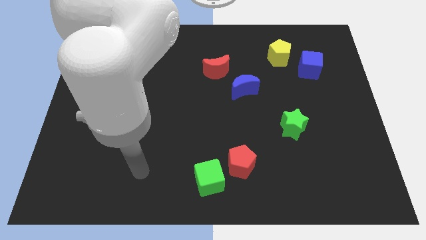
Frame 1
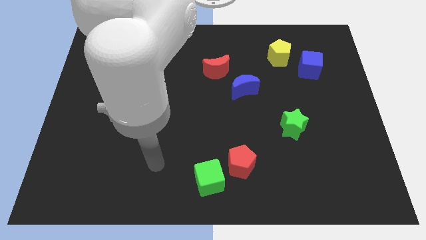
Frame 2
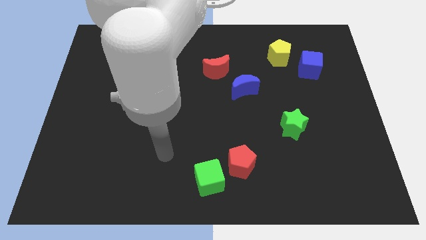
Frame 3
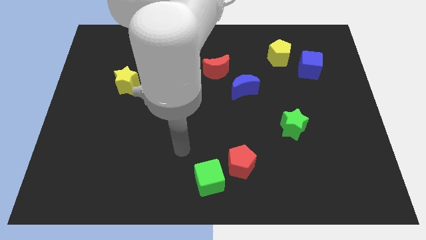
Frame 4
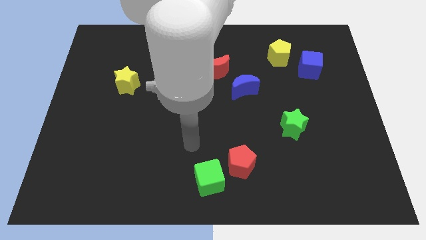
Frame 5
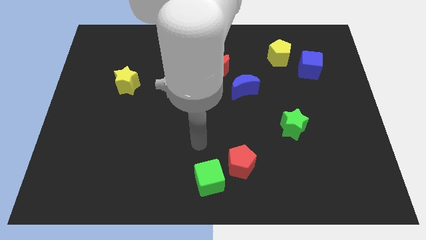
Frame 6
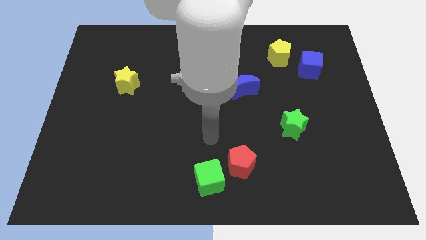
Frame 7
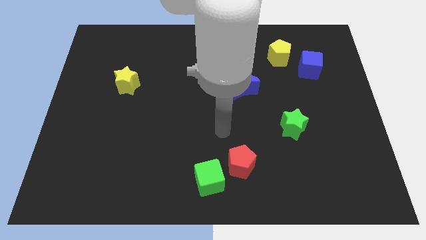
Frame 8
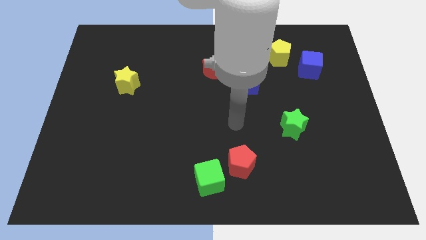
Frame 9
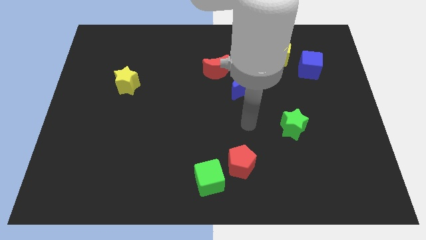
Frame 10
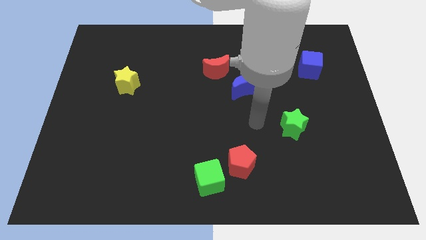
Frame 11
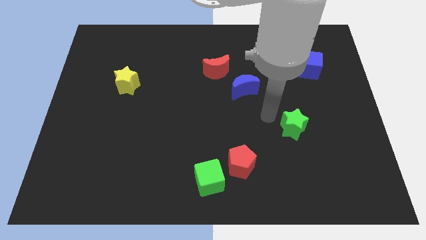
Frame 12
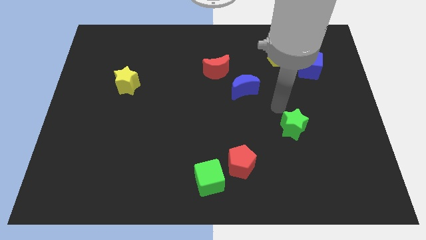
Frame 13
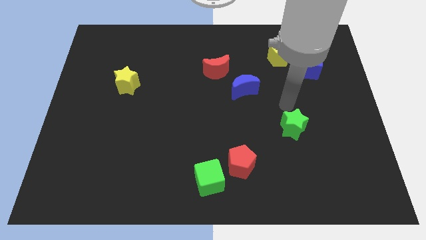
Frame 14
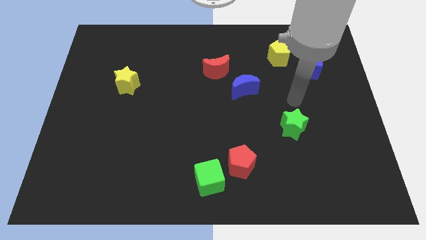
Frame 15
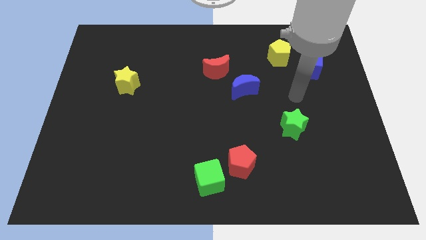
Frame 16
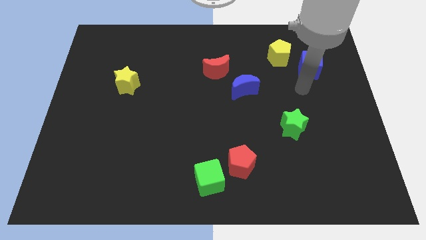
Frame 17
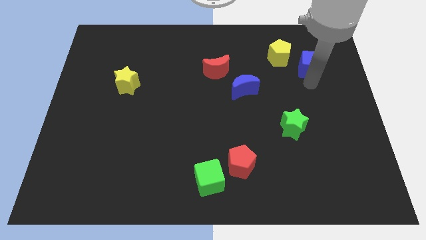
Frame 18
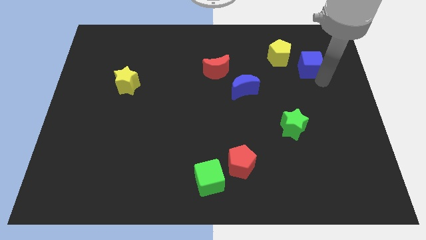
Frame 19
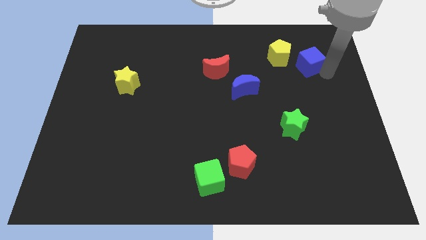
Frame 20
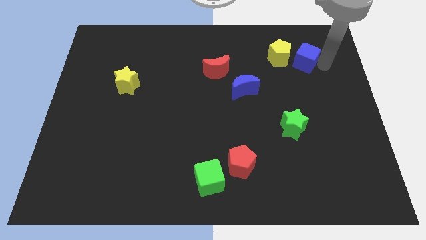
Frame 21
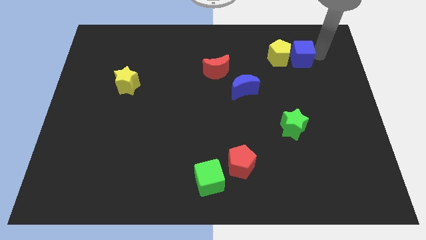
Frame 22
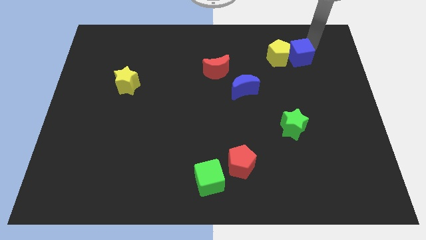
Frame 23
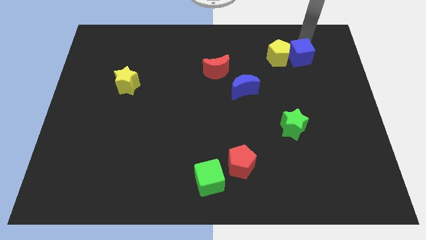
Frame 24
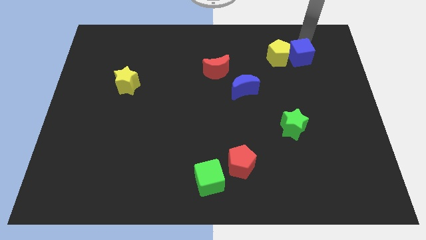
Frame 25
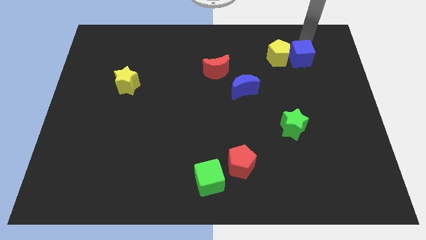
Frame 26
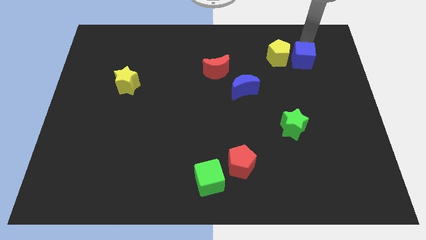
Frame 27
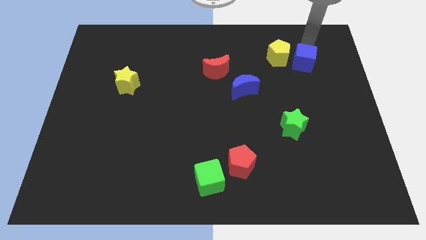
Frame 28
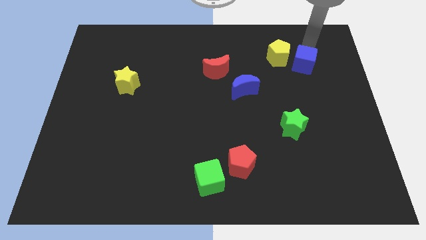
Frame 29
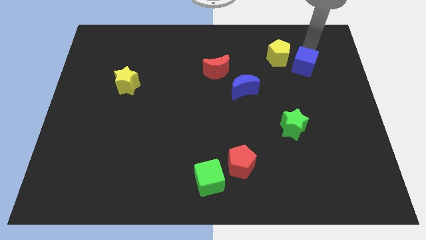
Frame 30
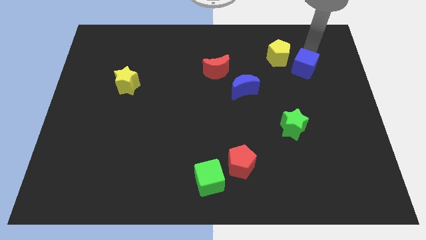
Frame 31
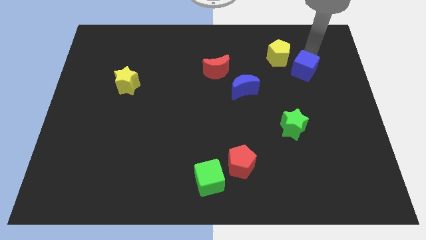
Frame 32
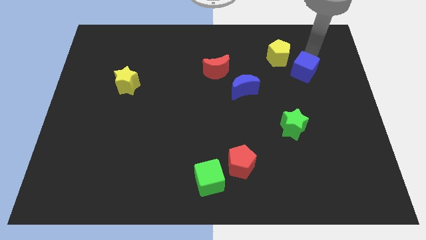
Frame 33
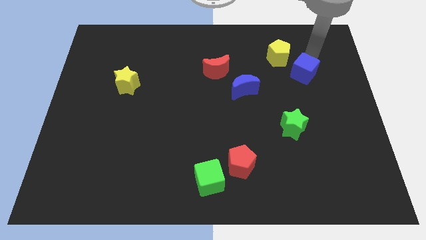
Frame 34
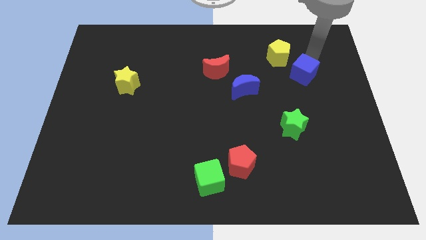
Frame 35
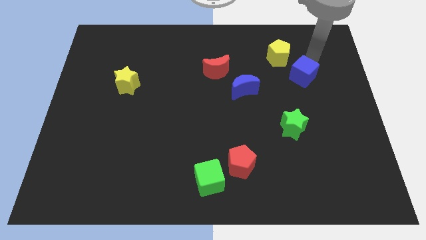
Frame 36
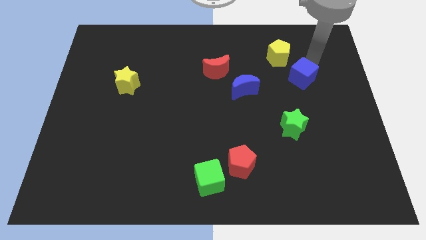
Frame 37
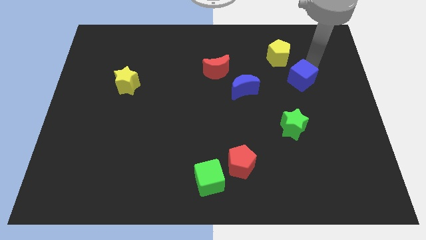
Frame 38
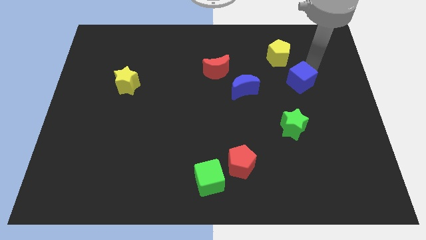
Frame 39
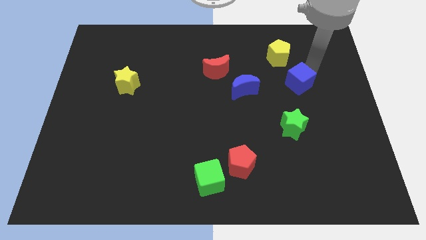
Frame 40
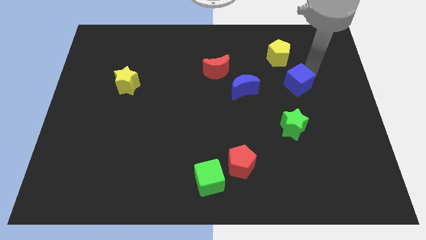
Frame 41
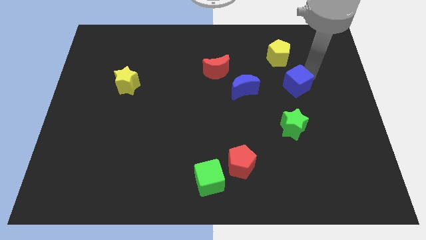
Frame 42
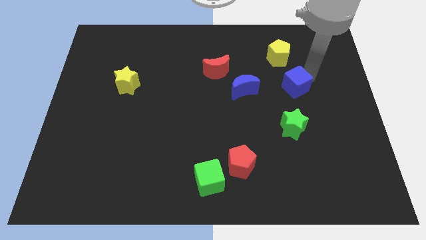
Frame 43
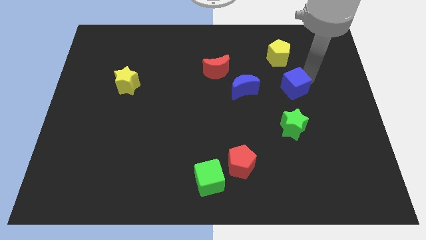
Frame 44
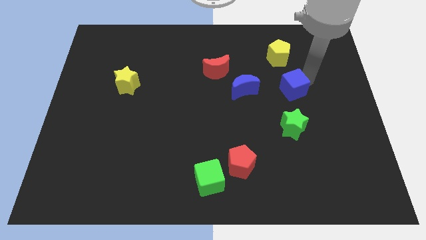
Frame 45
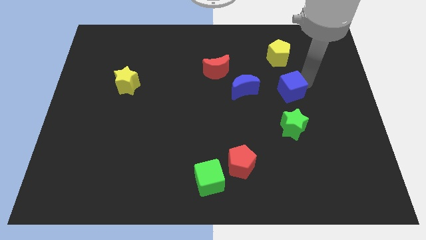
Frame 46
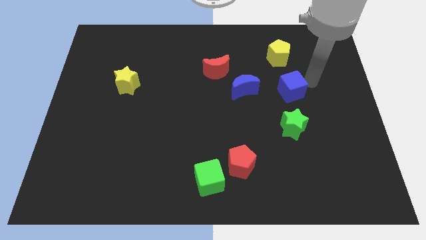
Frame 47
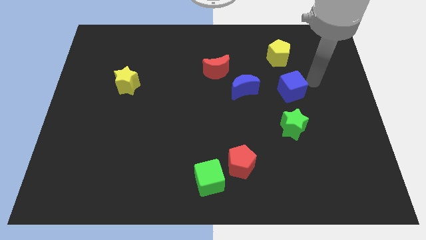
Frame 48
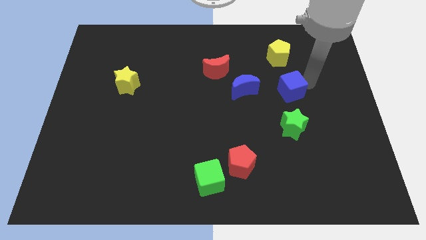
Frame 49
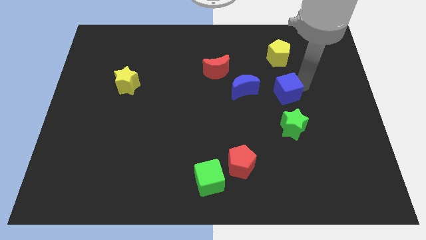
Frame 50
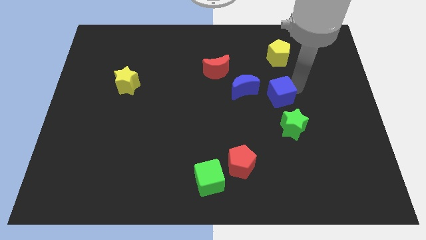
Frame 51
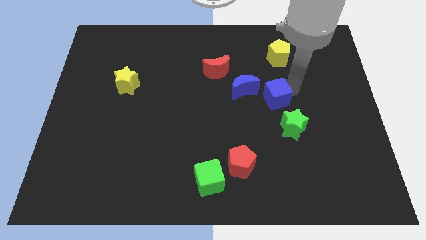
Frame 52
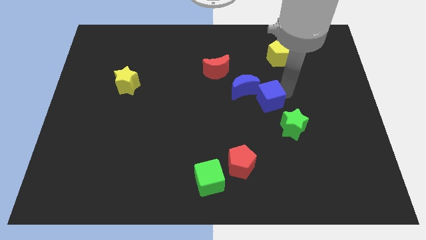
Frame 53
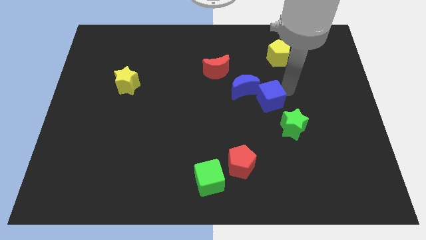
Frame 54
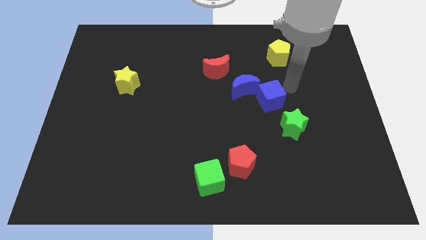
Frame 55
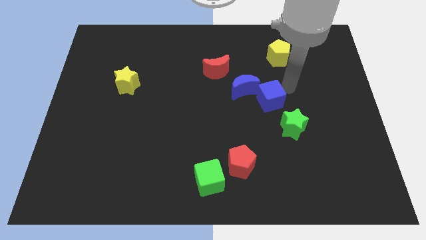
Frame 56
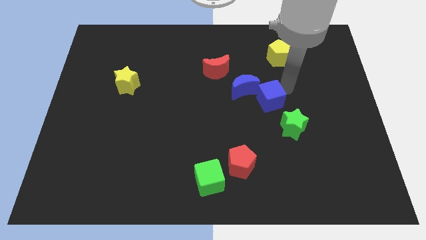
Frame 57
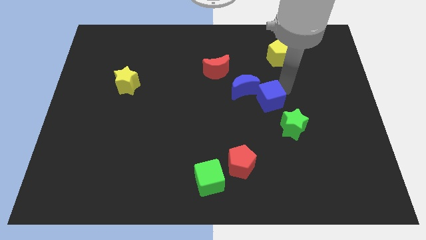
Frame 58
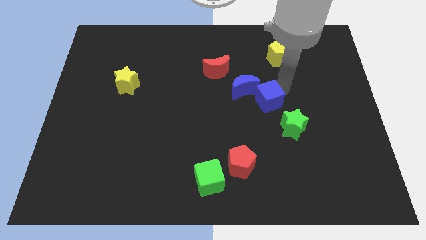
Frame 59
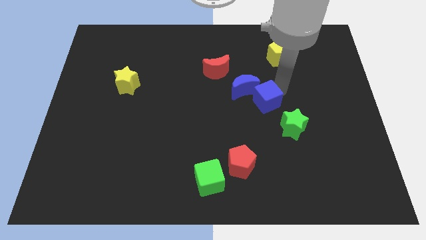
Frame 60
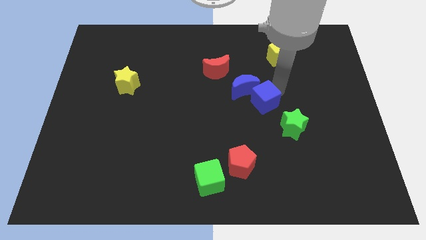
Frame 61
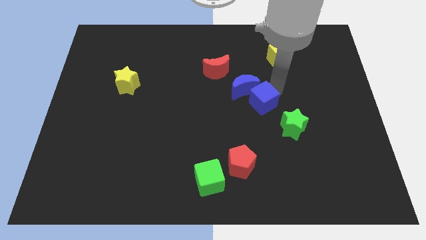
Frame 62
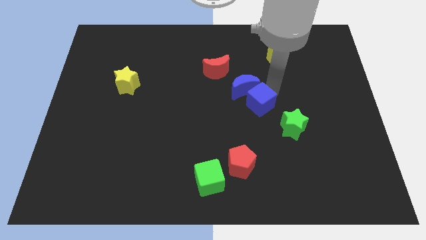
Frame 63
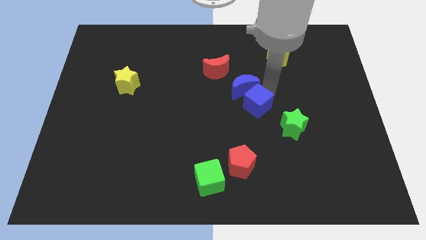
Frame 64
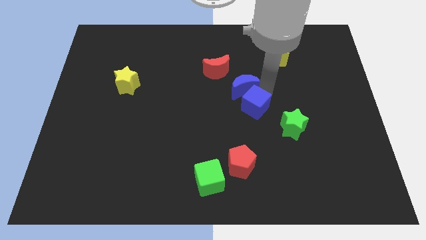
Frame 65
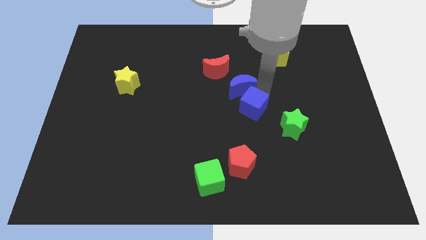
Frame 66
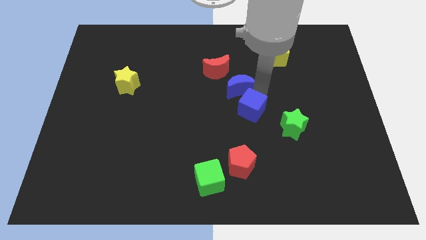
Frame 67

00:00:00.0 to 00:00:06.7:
move the blue cube diagonally downwards and to the left

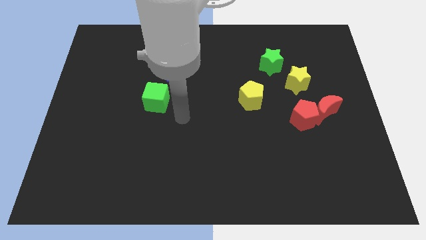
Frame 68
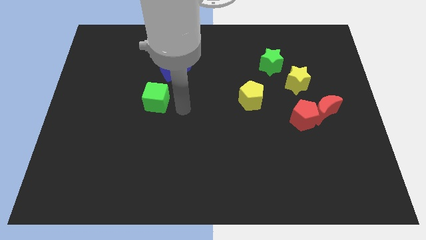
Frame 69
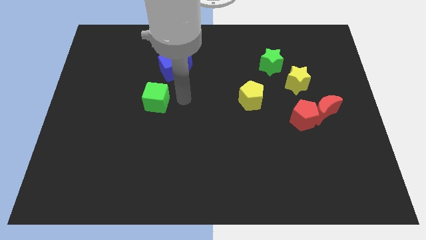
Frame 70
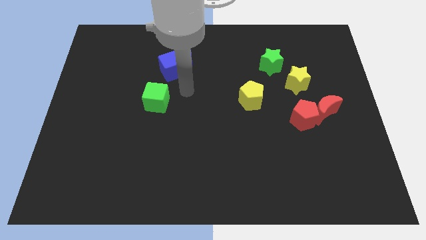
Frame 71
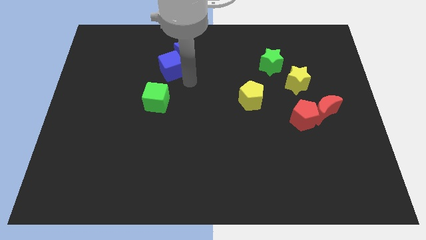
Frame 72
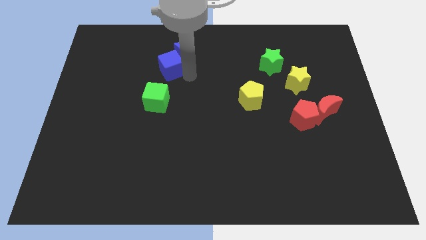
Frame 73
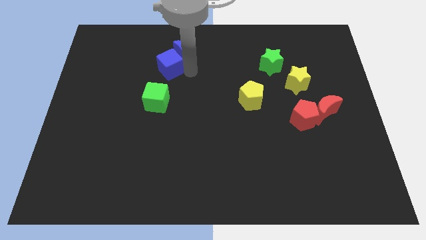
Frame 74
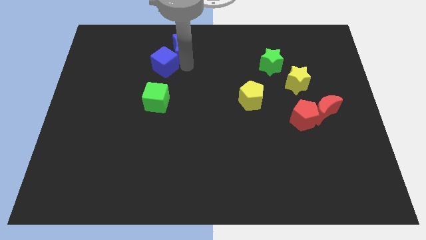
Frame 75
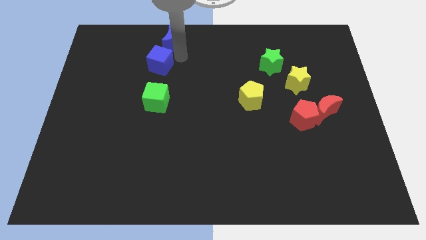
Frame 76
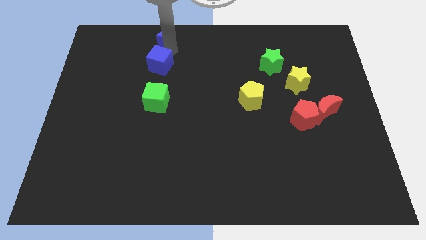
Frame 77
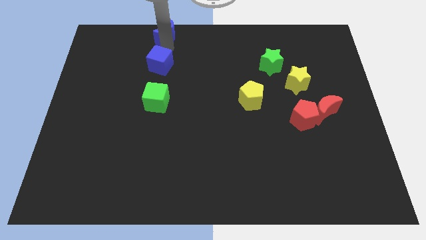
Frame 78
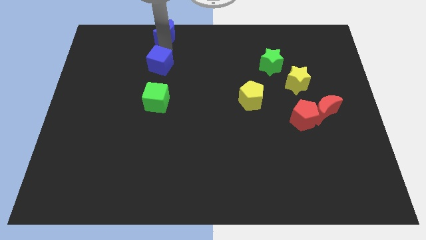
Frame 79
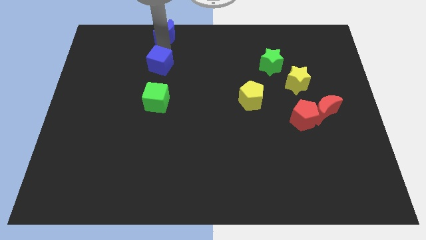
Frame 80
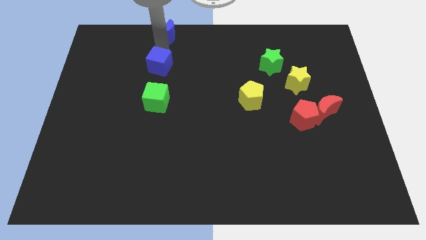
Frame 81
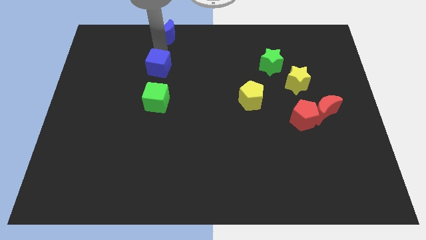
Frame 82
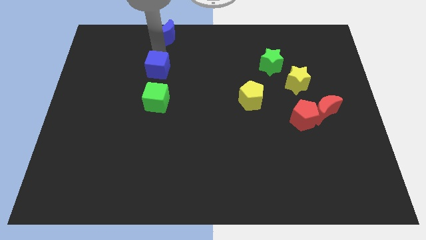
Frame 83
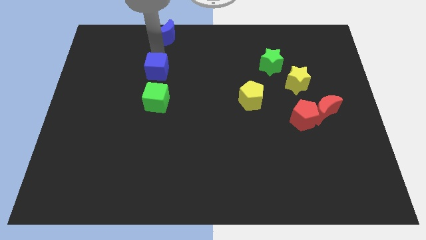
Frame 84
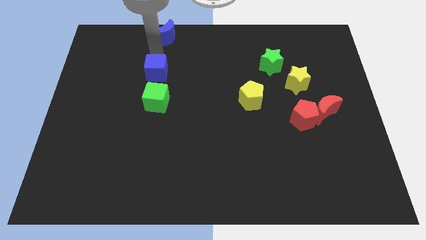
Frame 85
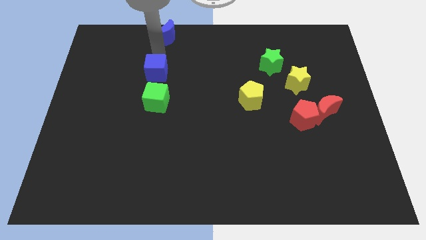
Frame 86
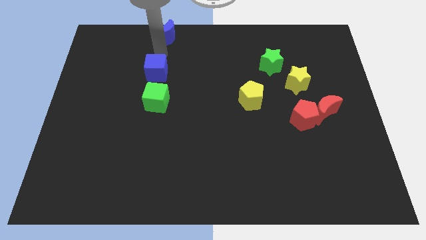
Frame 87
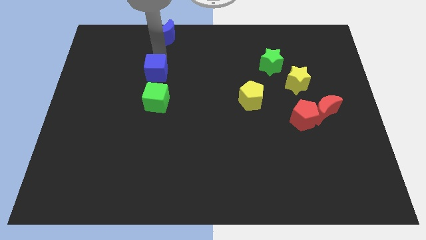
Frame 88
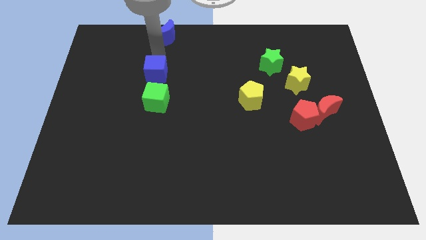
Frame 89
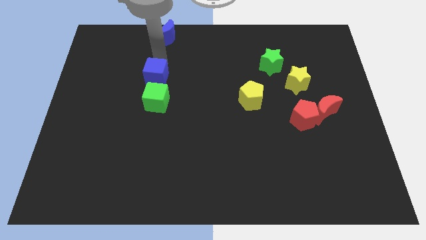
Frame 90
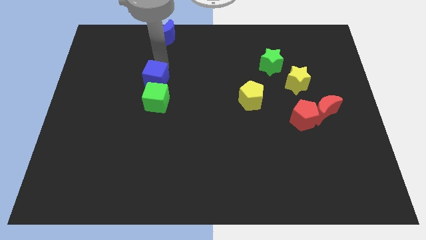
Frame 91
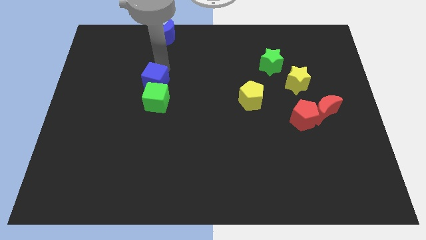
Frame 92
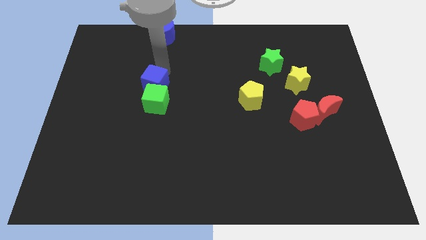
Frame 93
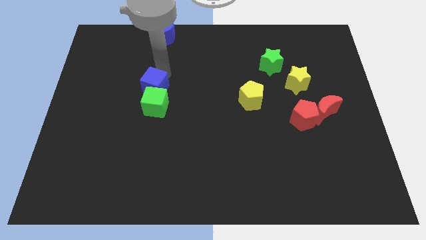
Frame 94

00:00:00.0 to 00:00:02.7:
slide the blue cube somewhat down and then left
